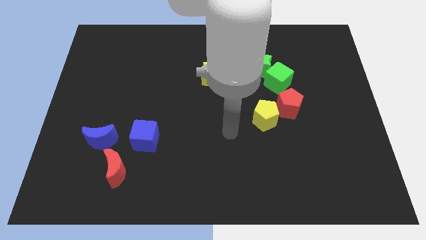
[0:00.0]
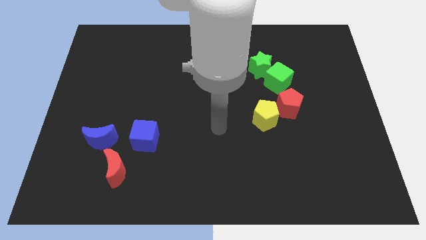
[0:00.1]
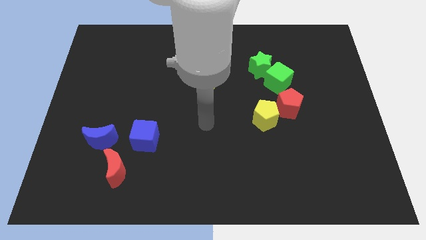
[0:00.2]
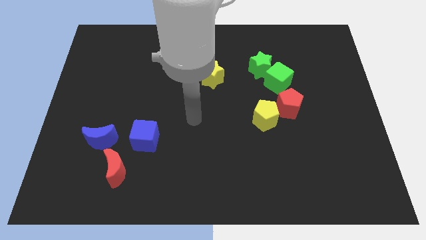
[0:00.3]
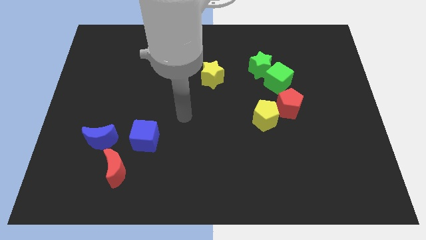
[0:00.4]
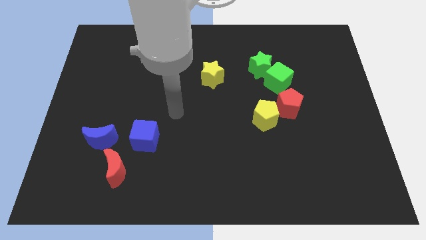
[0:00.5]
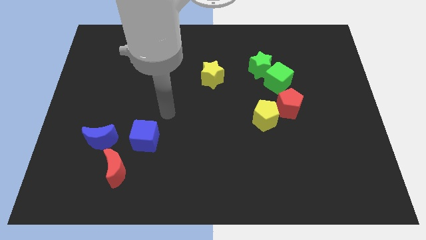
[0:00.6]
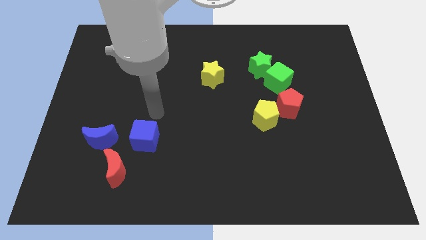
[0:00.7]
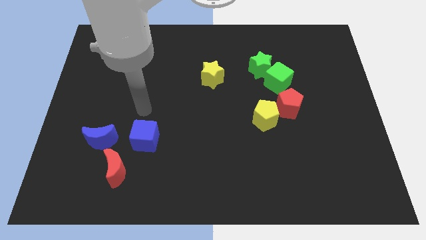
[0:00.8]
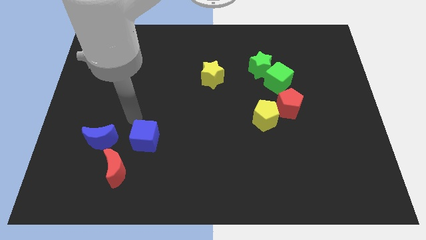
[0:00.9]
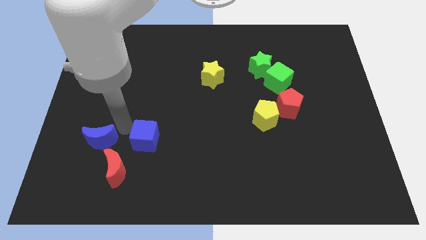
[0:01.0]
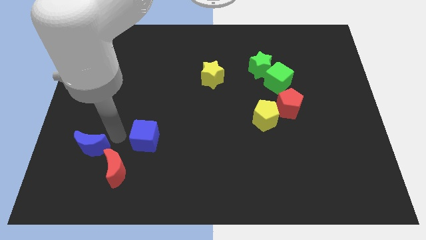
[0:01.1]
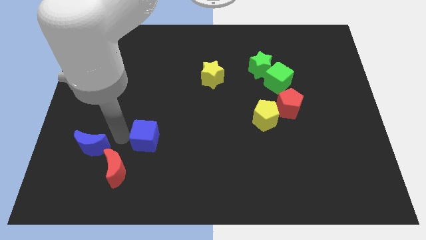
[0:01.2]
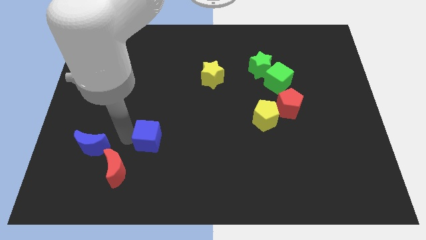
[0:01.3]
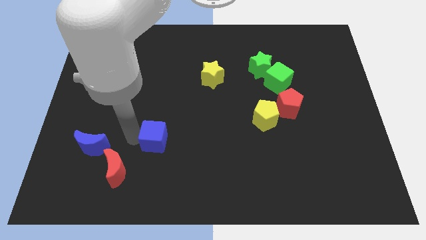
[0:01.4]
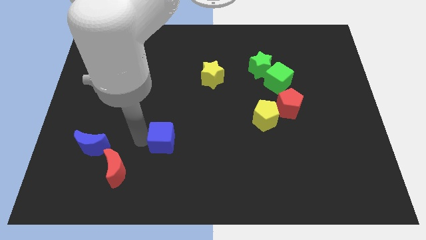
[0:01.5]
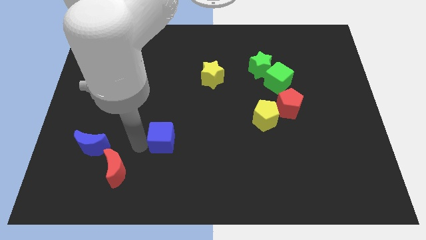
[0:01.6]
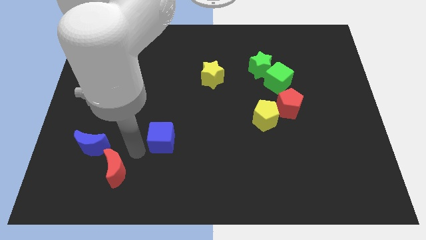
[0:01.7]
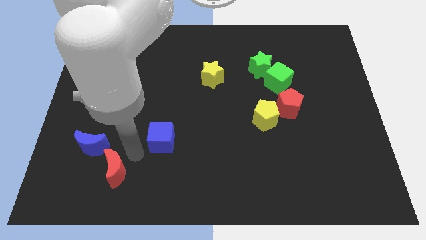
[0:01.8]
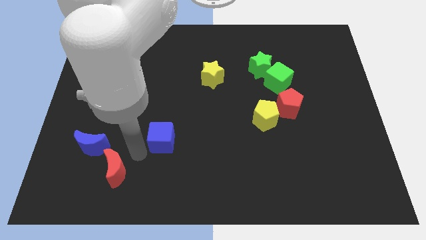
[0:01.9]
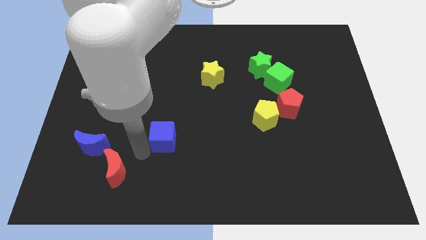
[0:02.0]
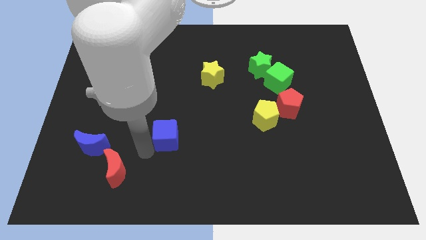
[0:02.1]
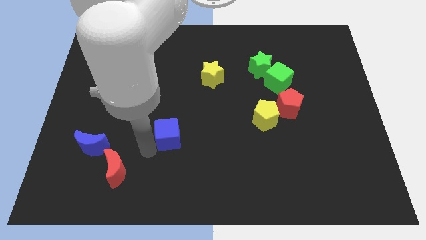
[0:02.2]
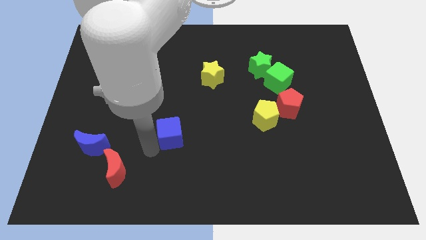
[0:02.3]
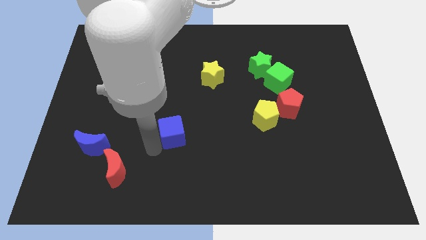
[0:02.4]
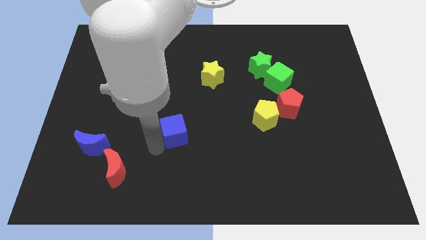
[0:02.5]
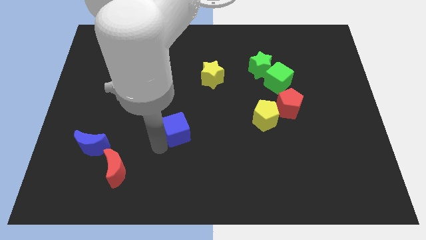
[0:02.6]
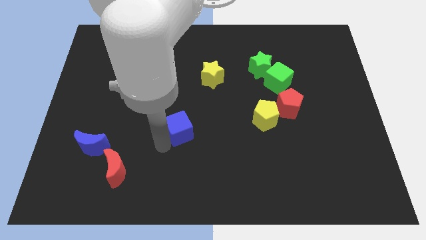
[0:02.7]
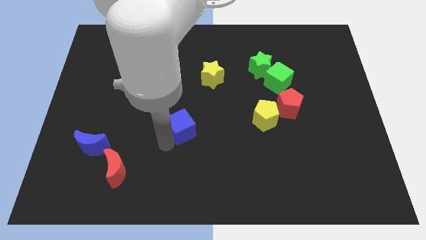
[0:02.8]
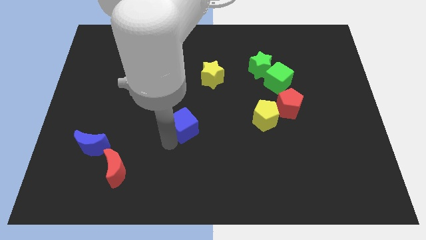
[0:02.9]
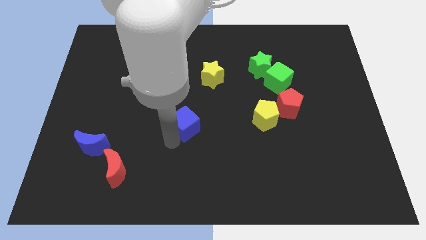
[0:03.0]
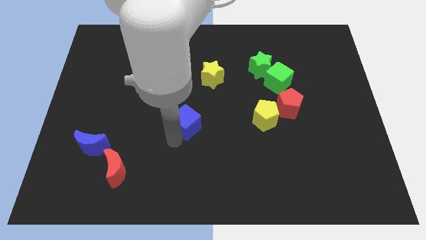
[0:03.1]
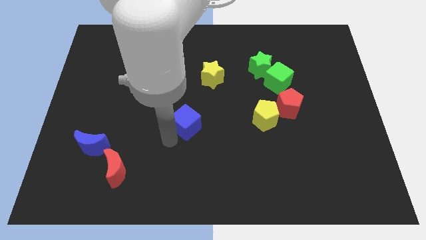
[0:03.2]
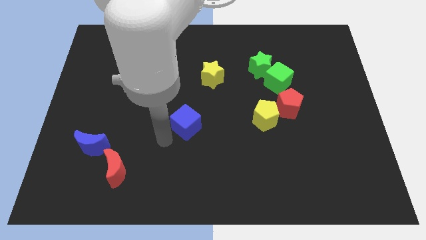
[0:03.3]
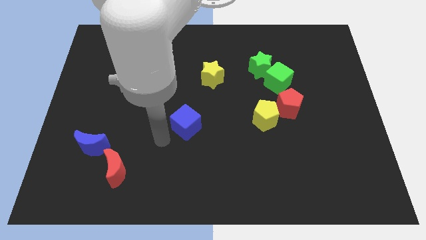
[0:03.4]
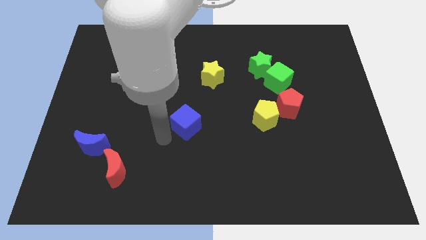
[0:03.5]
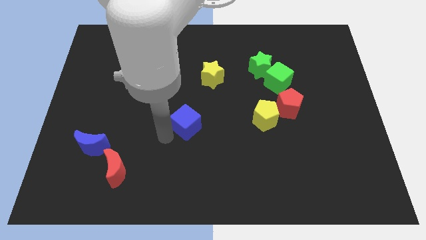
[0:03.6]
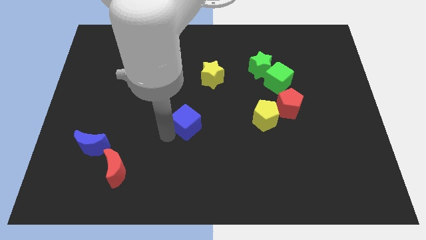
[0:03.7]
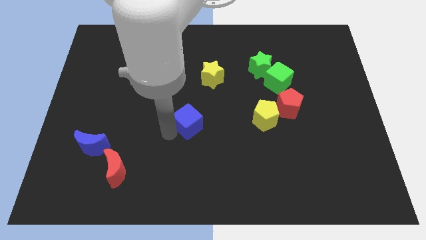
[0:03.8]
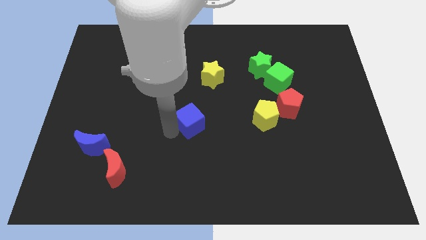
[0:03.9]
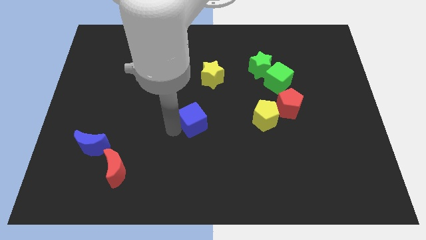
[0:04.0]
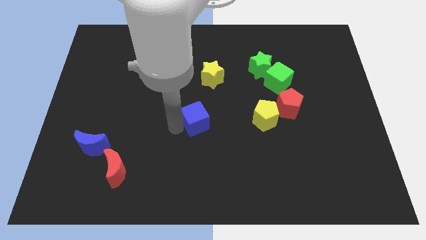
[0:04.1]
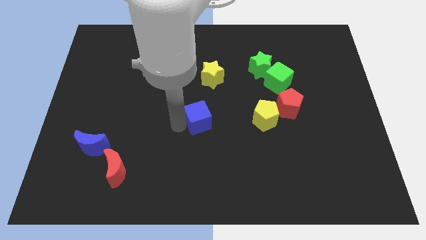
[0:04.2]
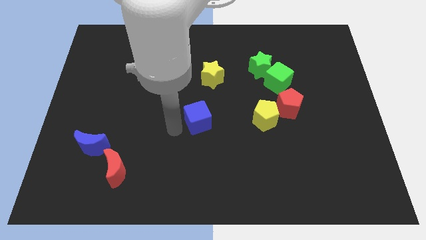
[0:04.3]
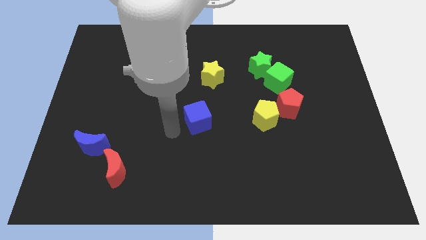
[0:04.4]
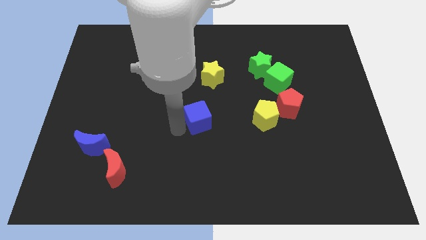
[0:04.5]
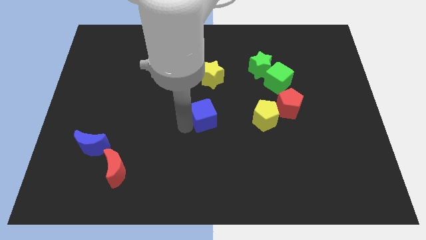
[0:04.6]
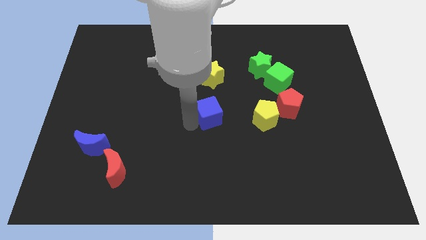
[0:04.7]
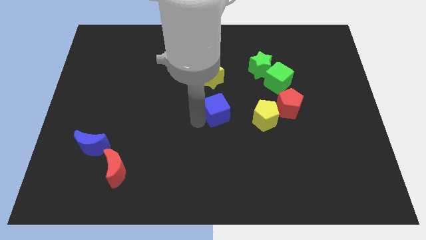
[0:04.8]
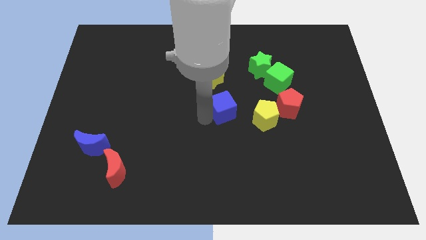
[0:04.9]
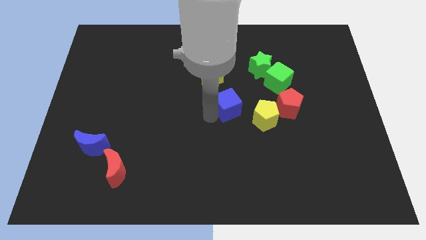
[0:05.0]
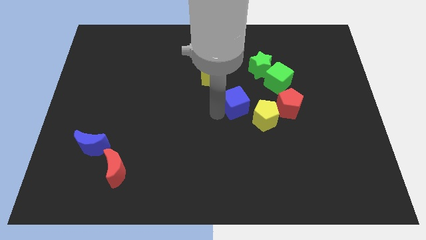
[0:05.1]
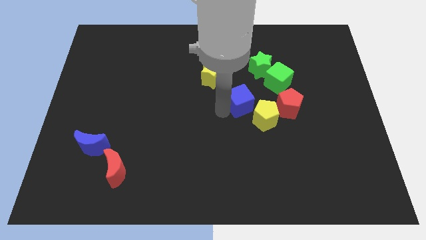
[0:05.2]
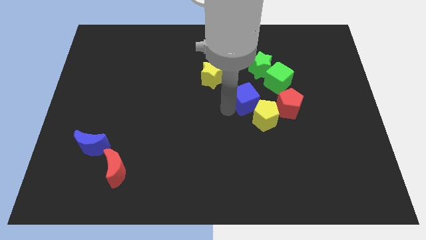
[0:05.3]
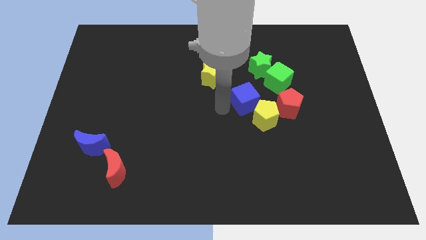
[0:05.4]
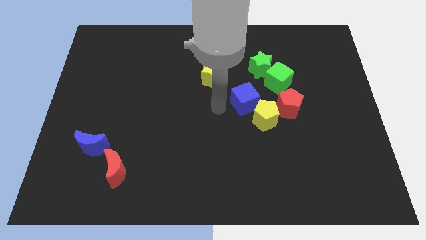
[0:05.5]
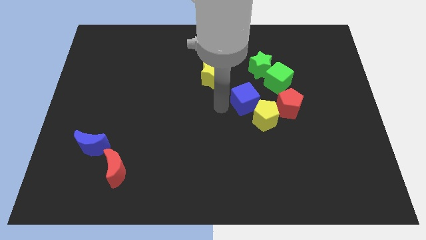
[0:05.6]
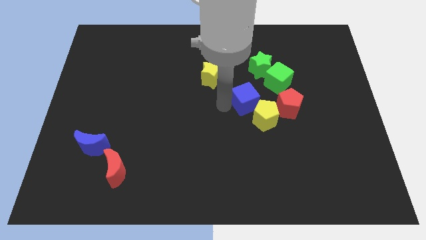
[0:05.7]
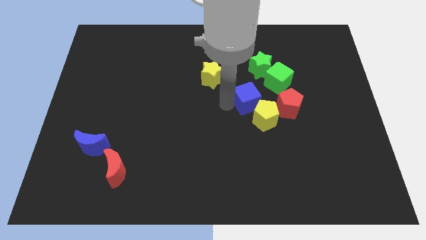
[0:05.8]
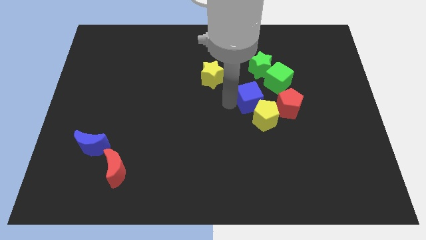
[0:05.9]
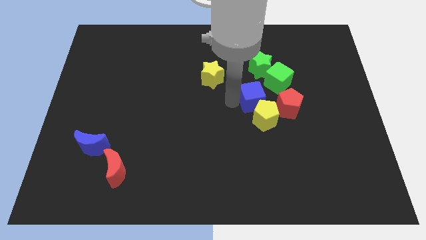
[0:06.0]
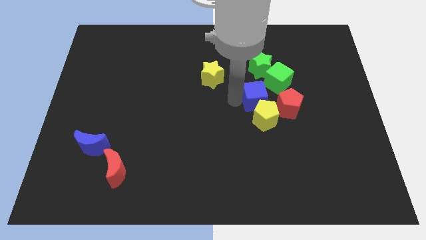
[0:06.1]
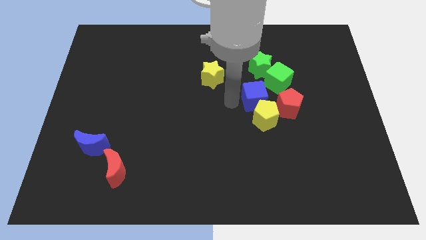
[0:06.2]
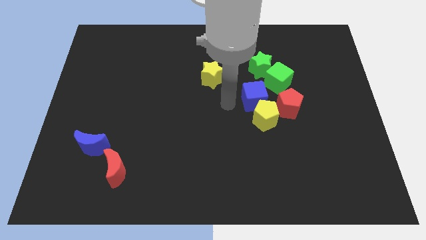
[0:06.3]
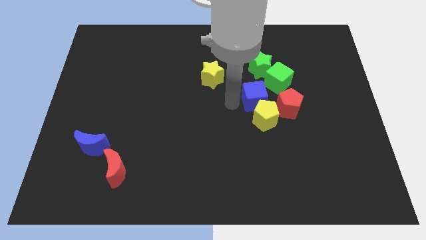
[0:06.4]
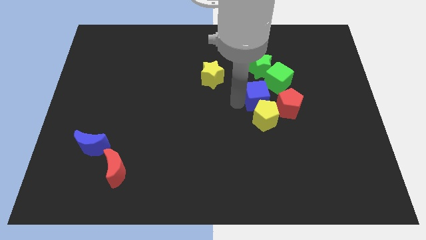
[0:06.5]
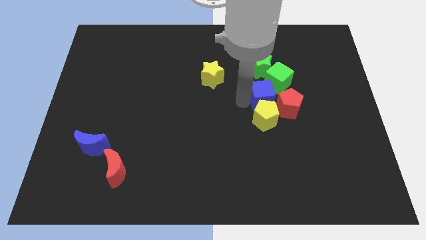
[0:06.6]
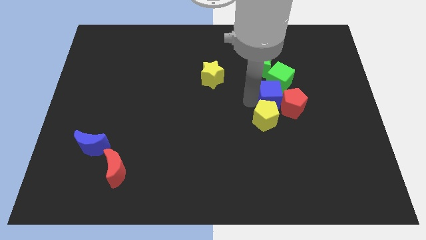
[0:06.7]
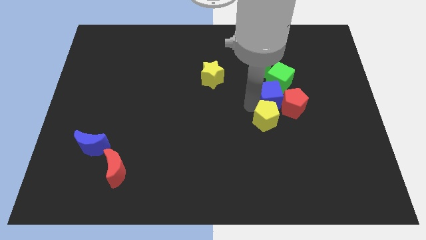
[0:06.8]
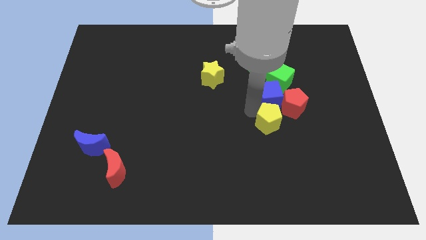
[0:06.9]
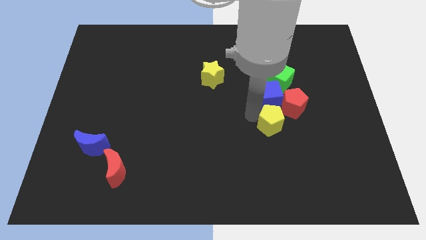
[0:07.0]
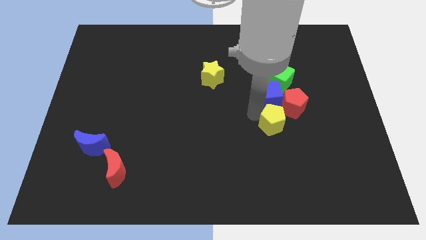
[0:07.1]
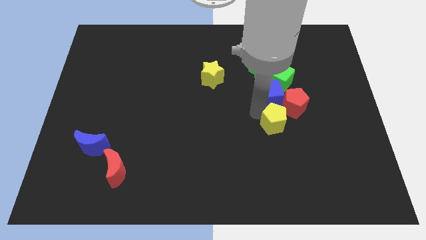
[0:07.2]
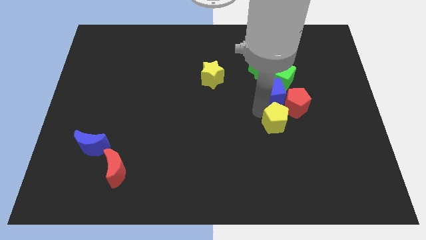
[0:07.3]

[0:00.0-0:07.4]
put the blue cube to the bottom right side of the green star
